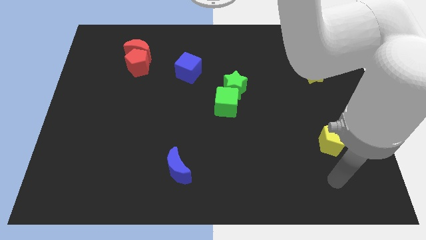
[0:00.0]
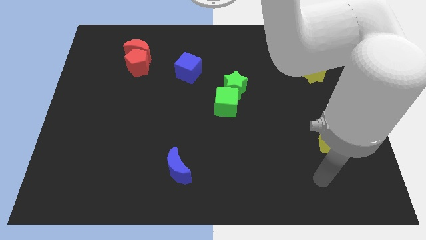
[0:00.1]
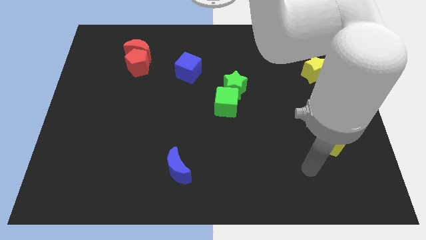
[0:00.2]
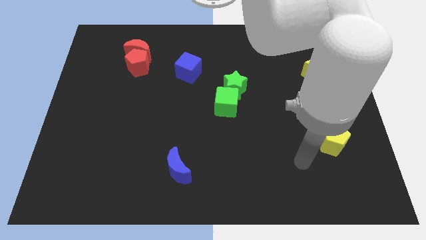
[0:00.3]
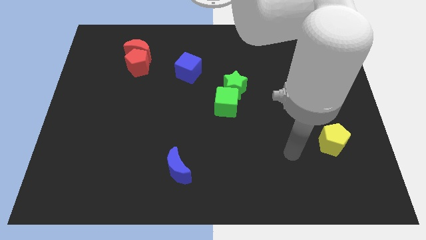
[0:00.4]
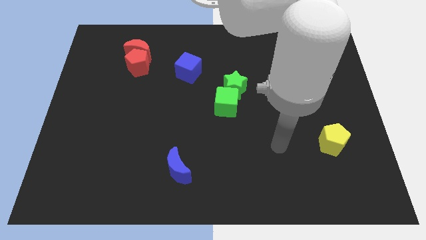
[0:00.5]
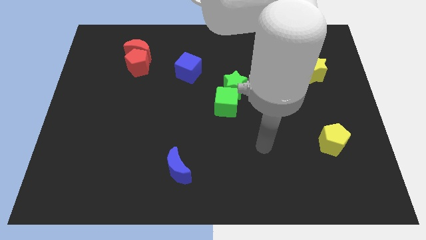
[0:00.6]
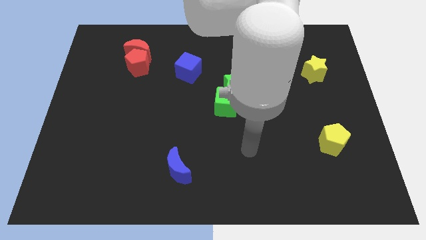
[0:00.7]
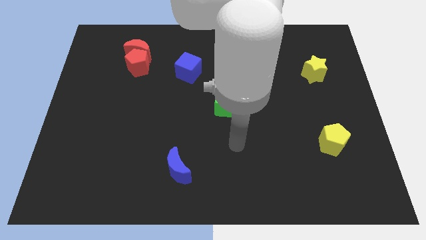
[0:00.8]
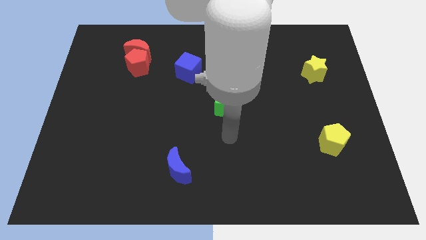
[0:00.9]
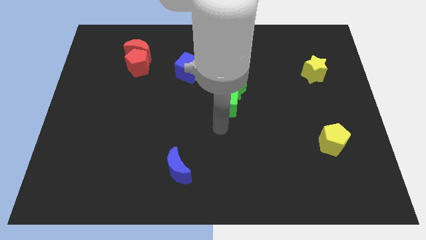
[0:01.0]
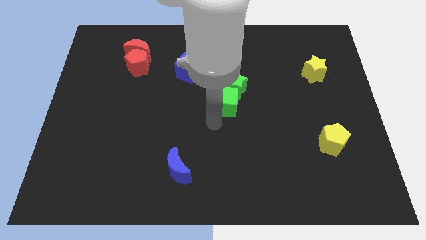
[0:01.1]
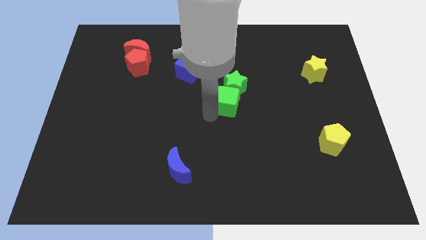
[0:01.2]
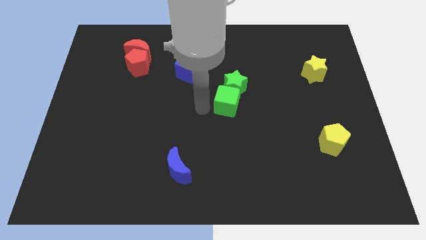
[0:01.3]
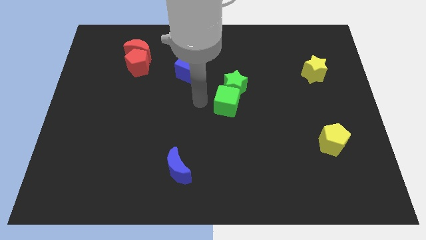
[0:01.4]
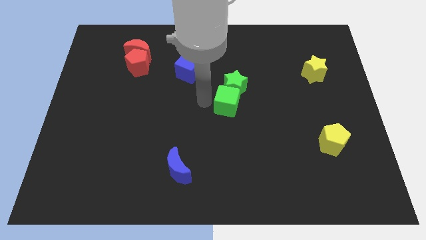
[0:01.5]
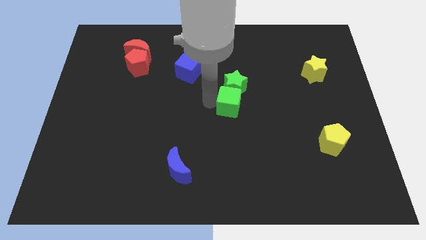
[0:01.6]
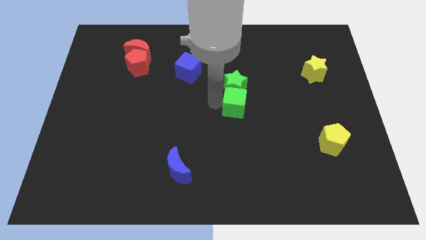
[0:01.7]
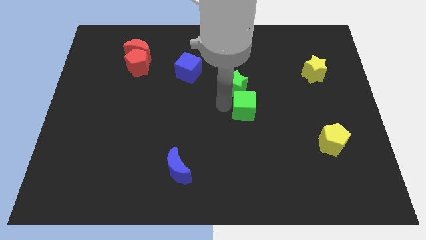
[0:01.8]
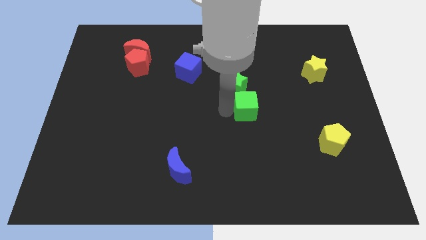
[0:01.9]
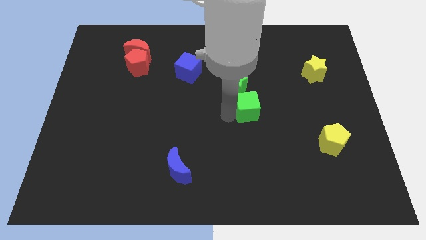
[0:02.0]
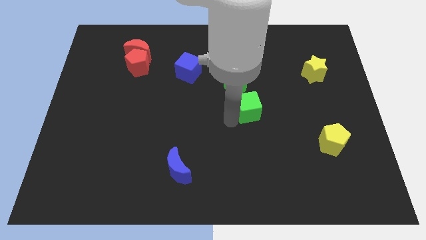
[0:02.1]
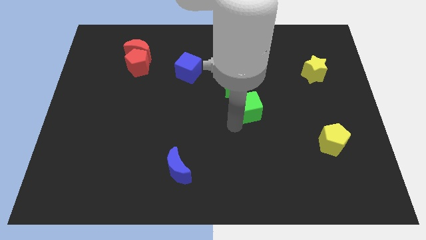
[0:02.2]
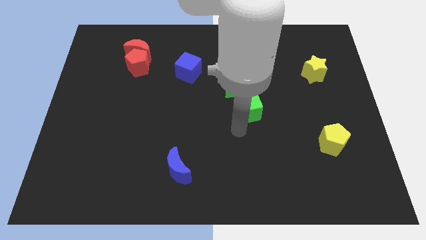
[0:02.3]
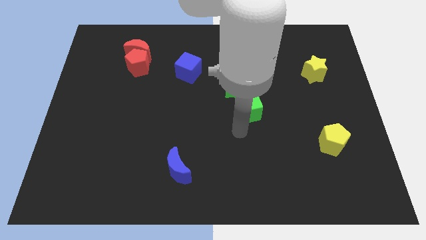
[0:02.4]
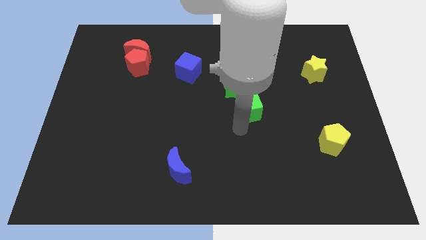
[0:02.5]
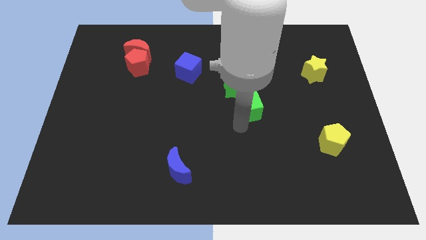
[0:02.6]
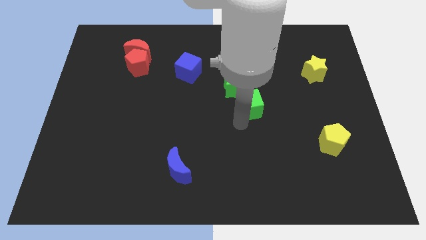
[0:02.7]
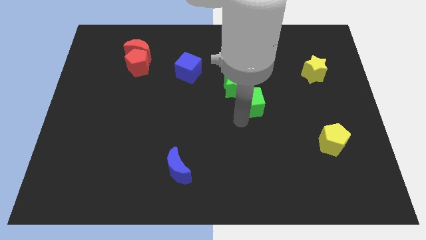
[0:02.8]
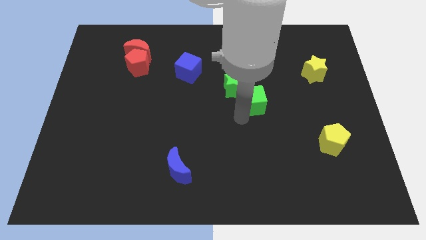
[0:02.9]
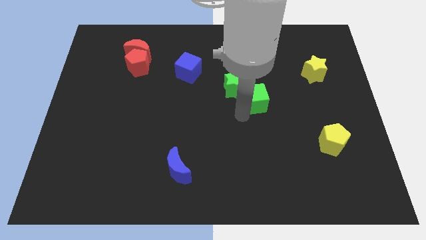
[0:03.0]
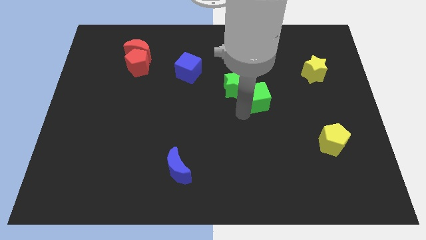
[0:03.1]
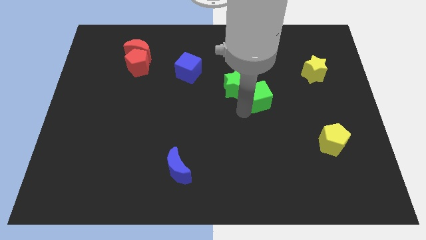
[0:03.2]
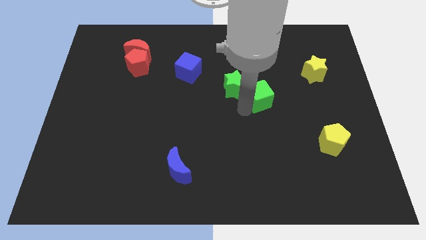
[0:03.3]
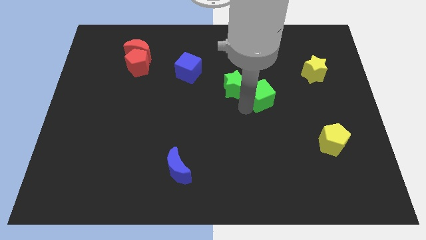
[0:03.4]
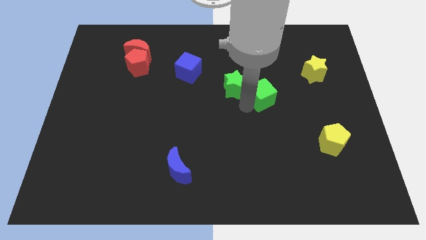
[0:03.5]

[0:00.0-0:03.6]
slightly slide the green cube up and right diagonally

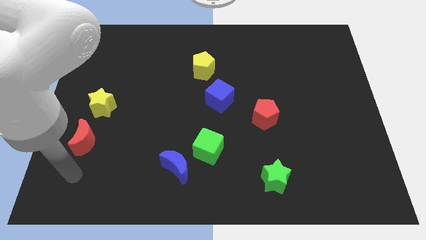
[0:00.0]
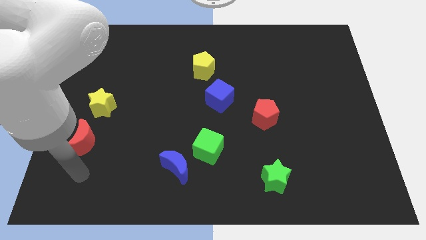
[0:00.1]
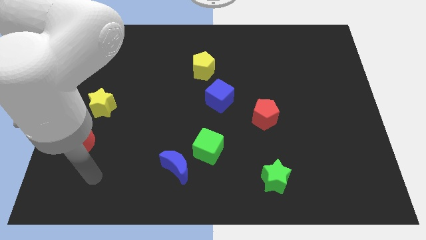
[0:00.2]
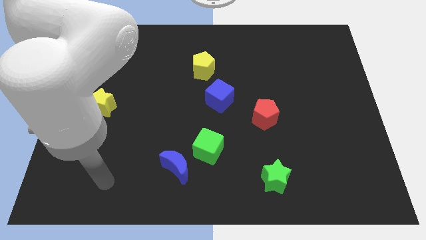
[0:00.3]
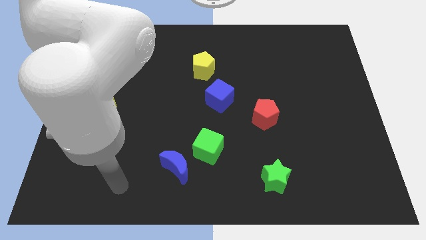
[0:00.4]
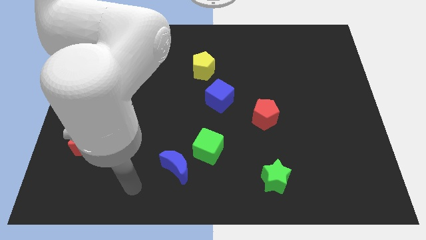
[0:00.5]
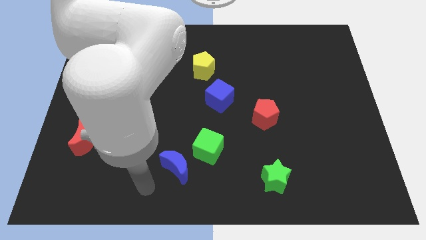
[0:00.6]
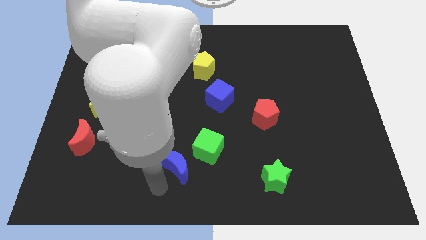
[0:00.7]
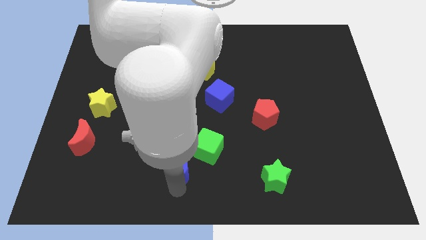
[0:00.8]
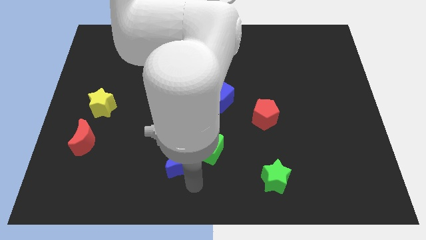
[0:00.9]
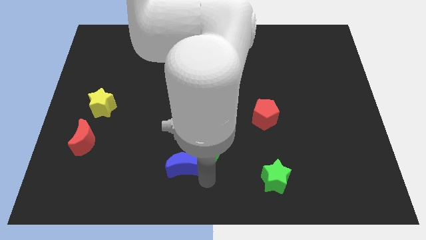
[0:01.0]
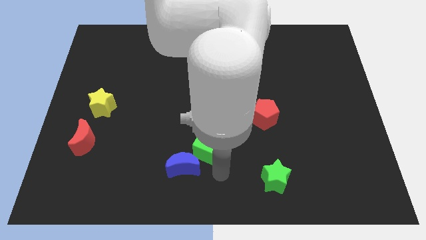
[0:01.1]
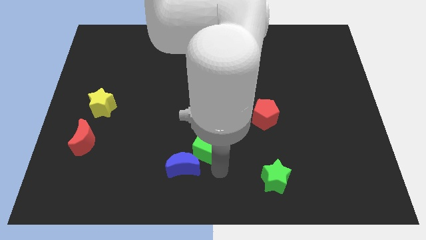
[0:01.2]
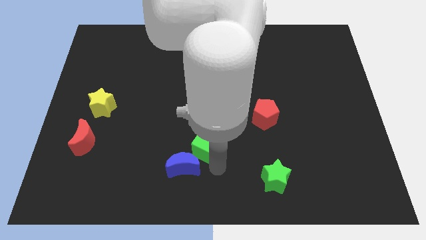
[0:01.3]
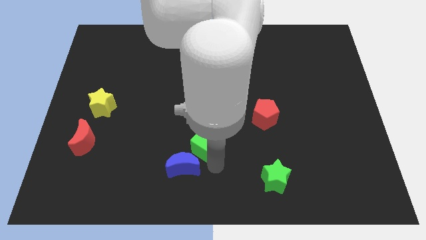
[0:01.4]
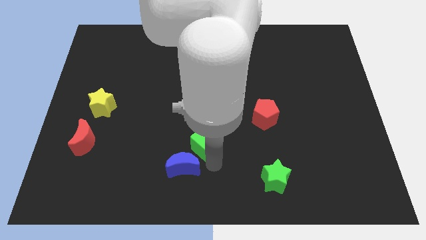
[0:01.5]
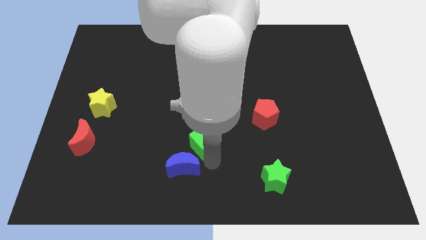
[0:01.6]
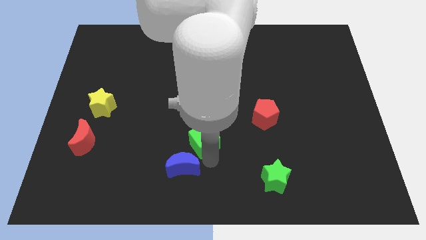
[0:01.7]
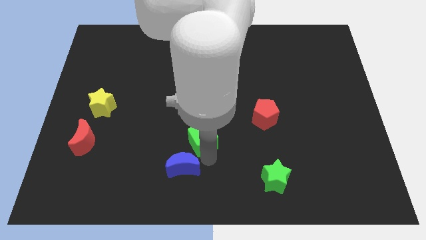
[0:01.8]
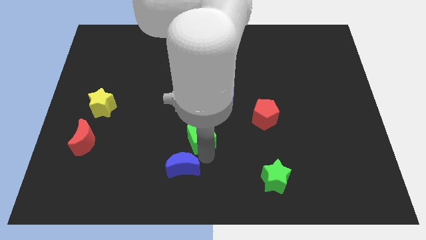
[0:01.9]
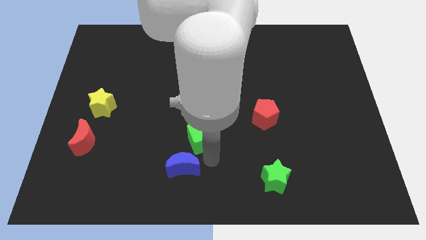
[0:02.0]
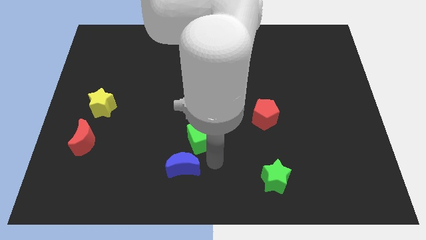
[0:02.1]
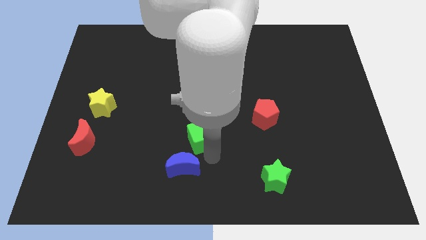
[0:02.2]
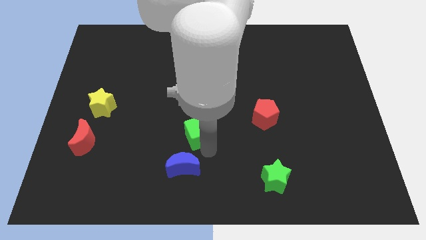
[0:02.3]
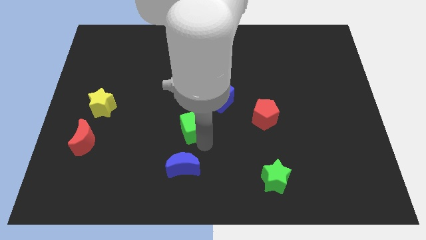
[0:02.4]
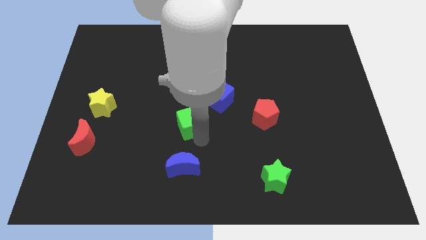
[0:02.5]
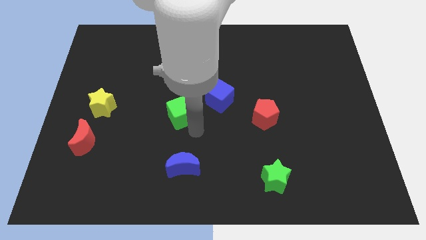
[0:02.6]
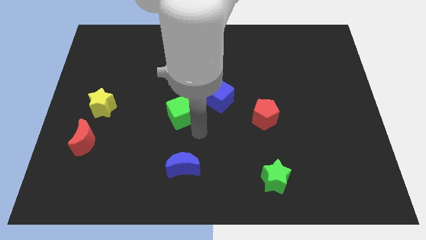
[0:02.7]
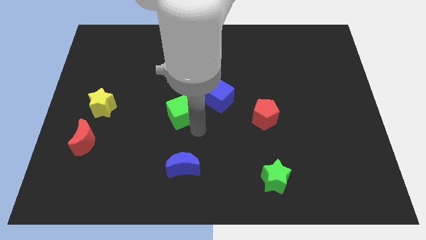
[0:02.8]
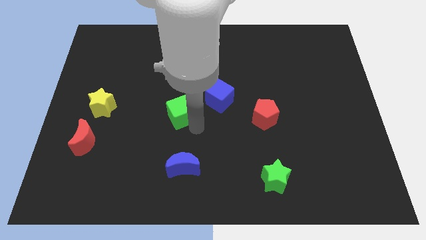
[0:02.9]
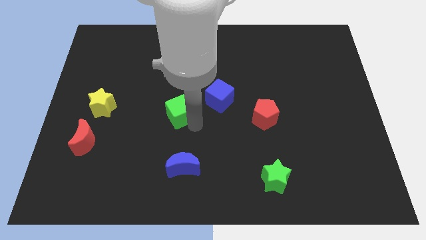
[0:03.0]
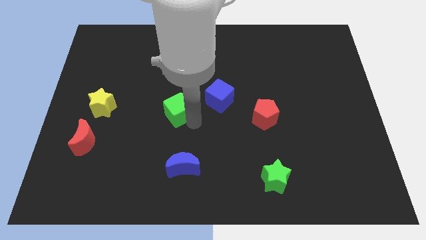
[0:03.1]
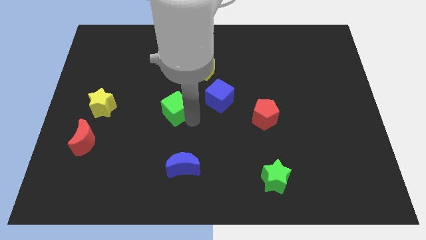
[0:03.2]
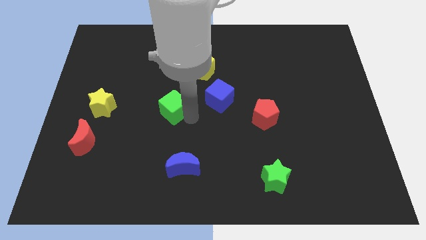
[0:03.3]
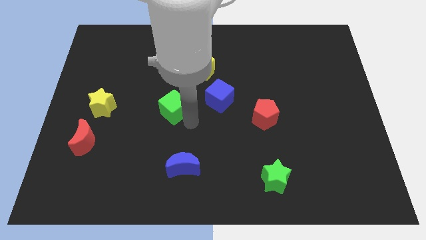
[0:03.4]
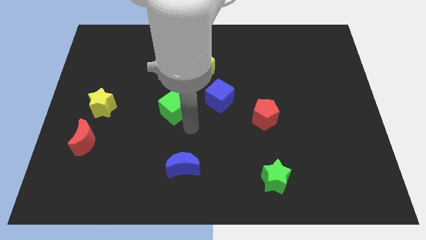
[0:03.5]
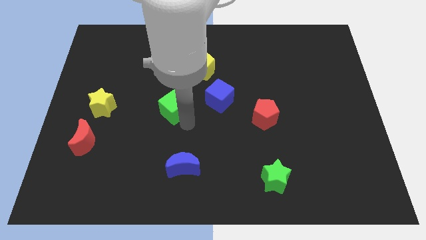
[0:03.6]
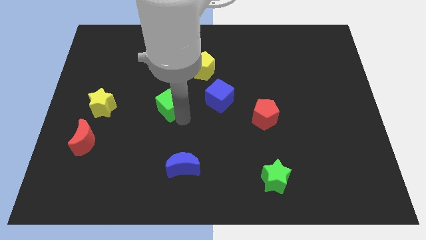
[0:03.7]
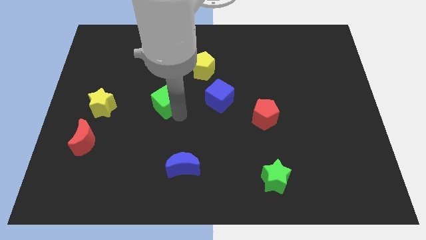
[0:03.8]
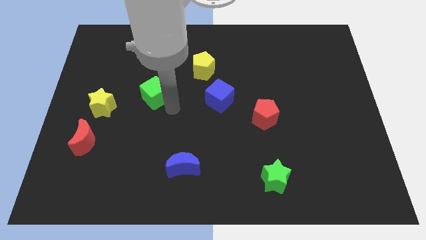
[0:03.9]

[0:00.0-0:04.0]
push the green cube diagonally up and to the left

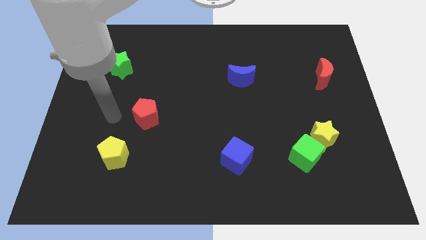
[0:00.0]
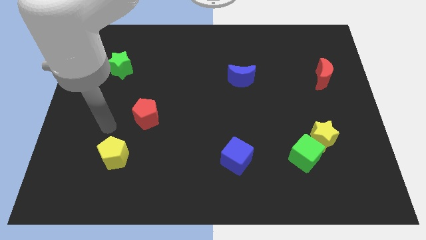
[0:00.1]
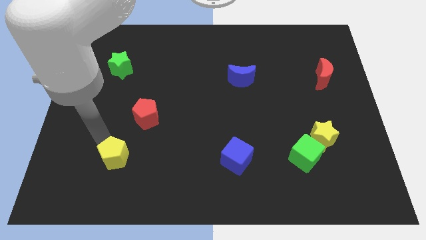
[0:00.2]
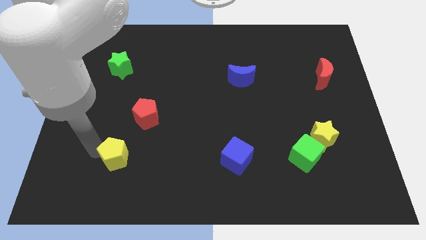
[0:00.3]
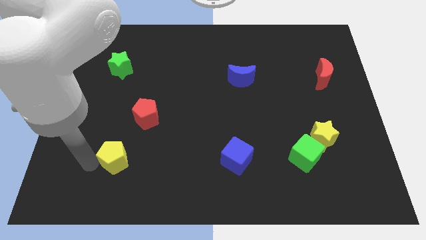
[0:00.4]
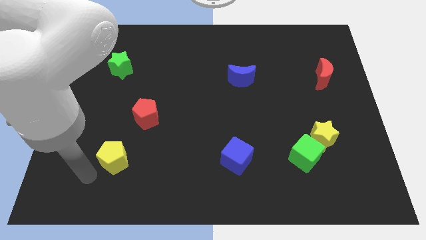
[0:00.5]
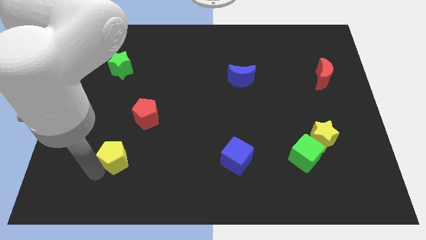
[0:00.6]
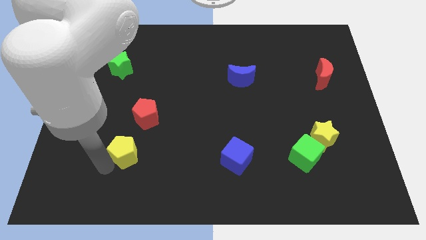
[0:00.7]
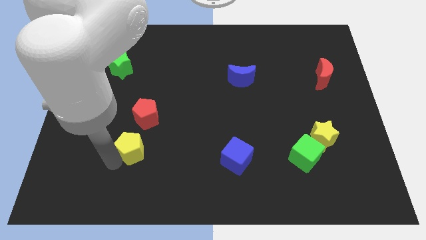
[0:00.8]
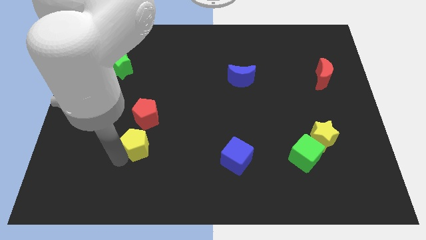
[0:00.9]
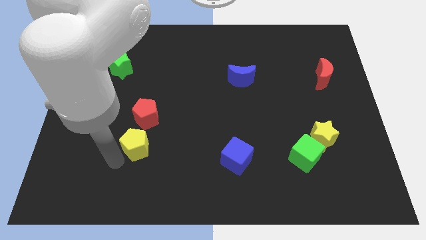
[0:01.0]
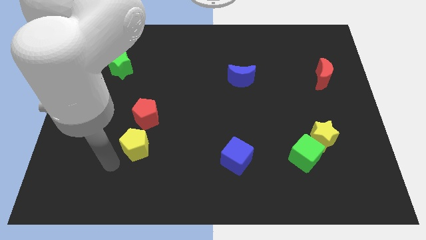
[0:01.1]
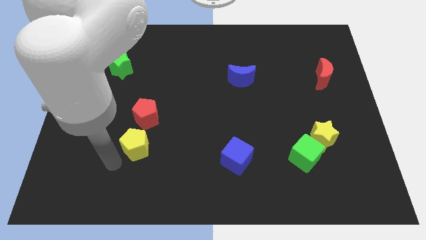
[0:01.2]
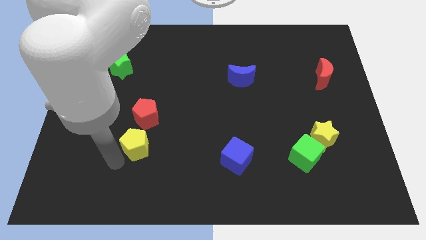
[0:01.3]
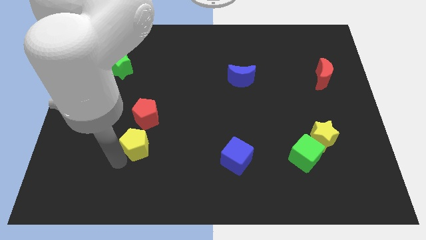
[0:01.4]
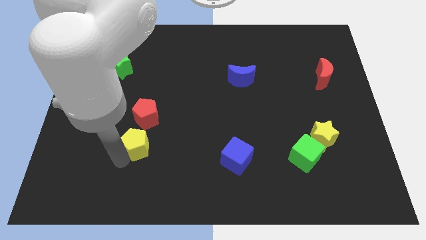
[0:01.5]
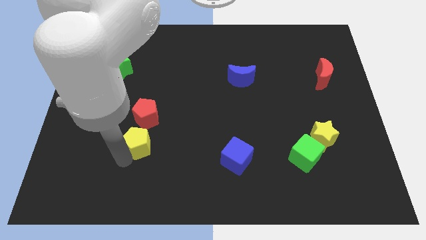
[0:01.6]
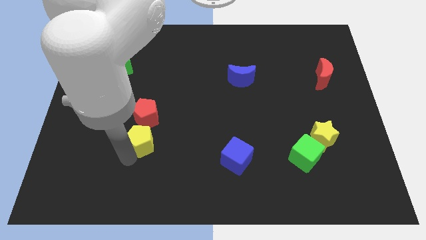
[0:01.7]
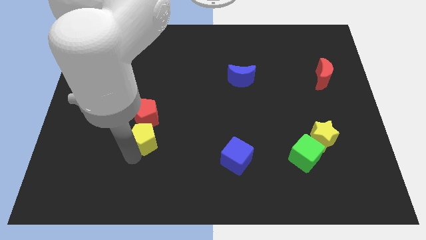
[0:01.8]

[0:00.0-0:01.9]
slide the yellow pentagon a little diagonally upwards and right
